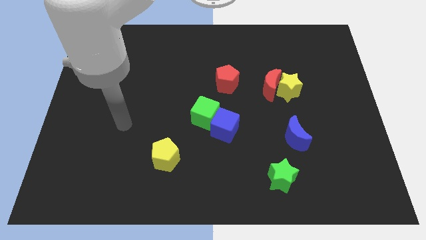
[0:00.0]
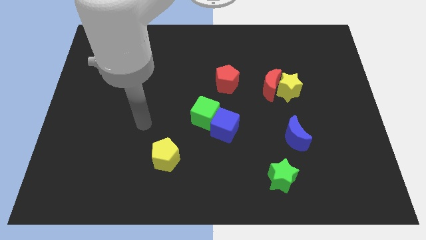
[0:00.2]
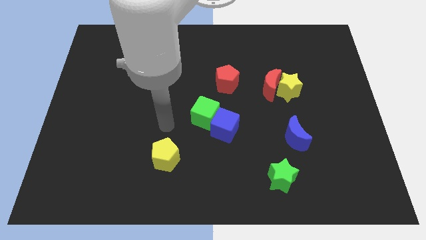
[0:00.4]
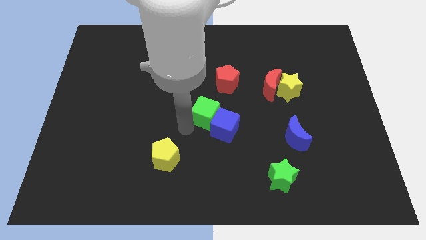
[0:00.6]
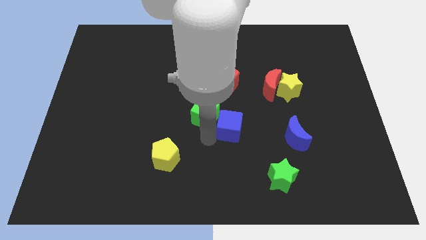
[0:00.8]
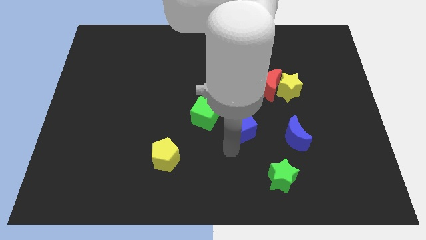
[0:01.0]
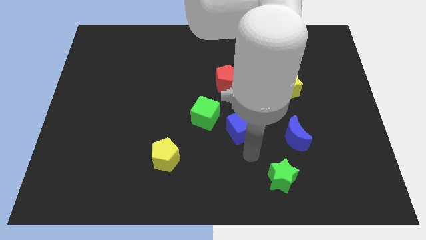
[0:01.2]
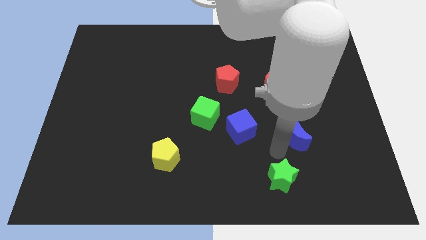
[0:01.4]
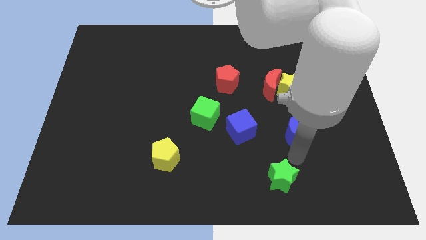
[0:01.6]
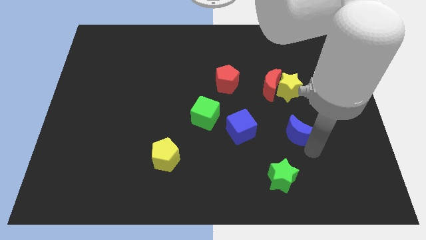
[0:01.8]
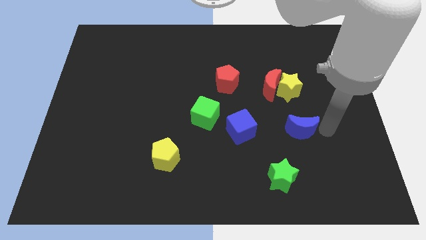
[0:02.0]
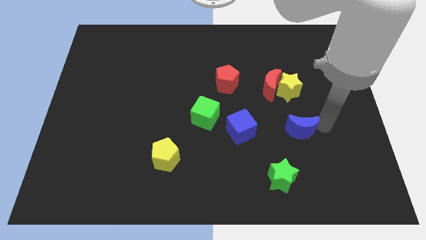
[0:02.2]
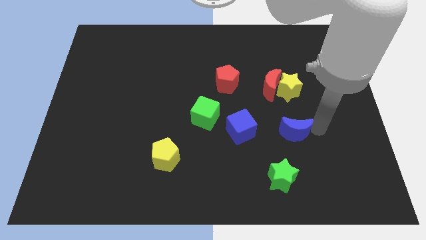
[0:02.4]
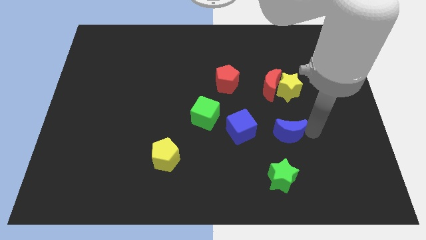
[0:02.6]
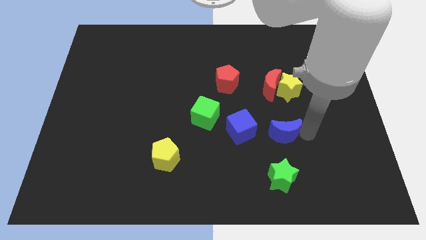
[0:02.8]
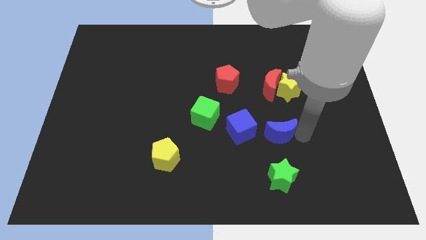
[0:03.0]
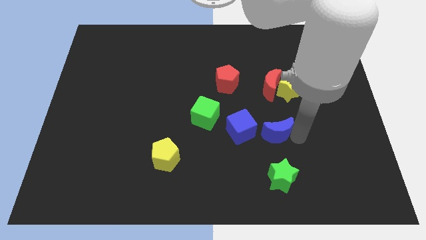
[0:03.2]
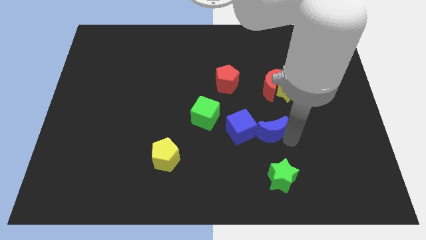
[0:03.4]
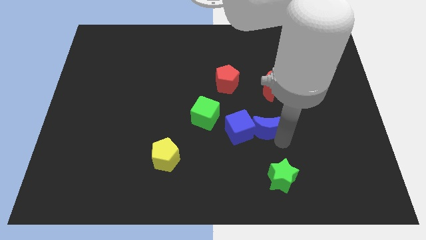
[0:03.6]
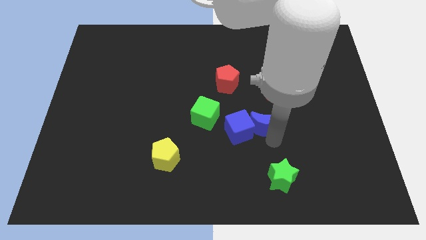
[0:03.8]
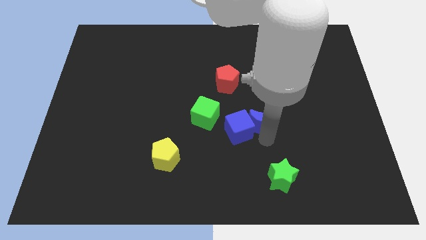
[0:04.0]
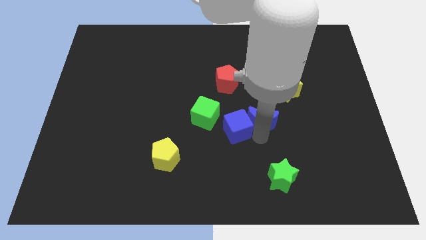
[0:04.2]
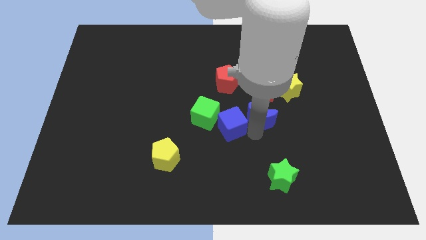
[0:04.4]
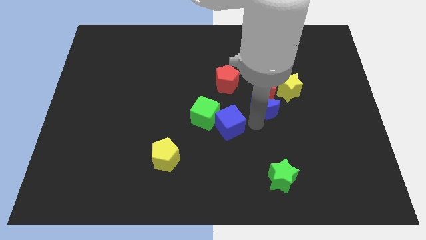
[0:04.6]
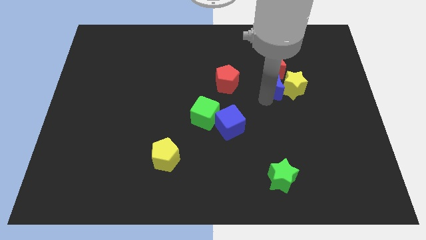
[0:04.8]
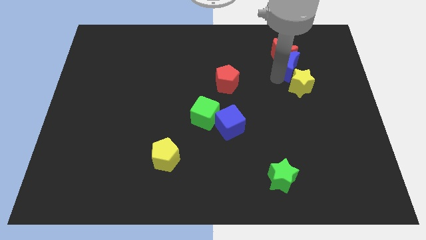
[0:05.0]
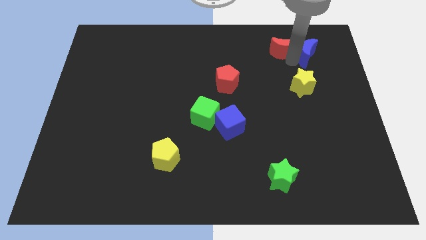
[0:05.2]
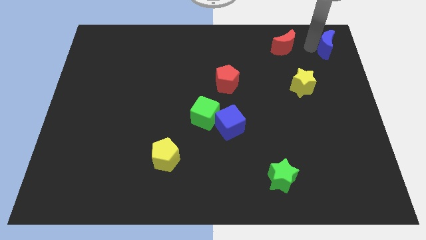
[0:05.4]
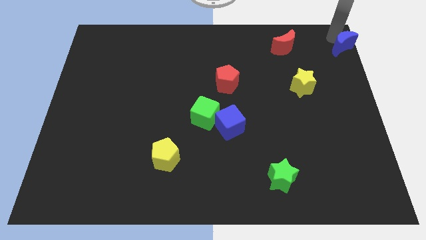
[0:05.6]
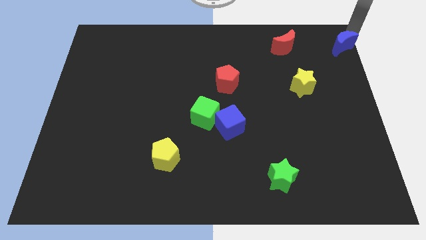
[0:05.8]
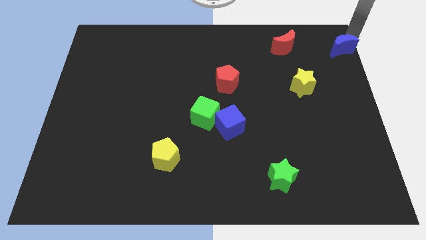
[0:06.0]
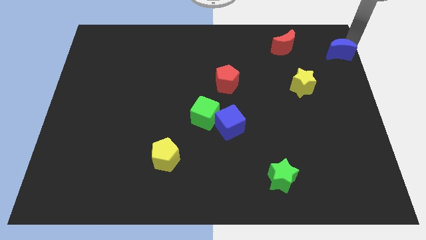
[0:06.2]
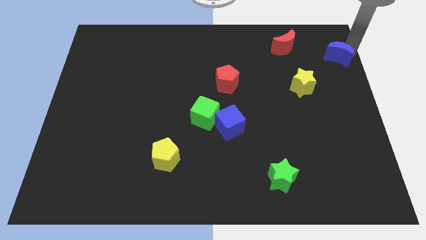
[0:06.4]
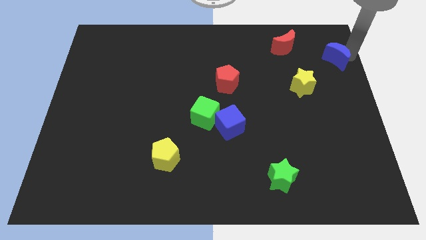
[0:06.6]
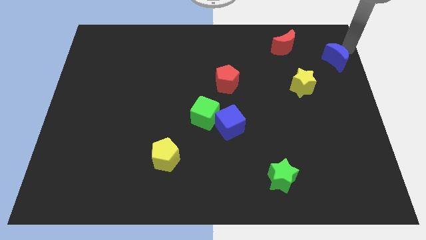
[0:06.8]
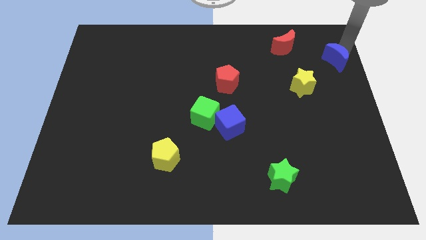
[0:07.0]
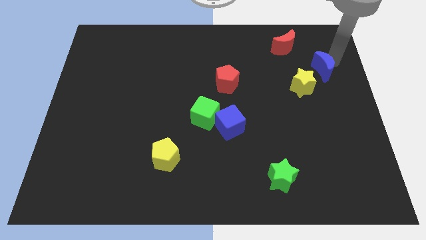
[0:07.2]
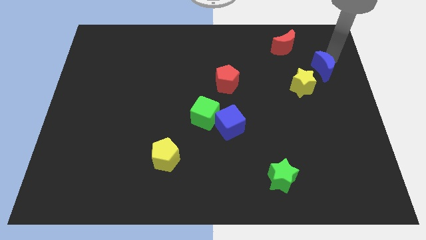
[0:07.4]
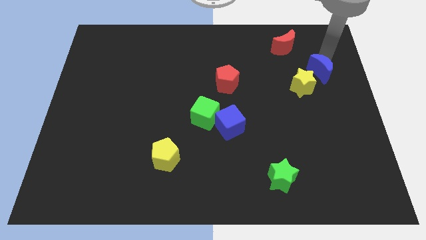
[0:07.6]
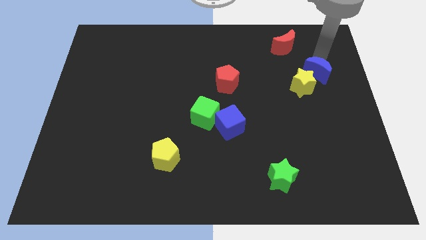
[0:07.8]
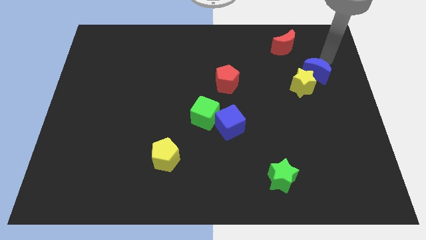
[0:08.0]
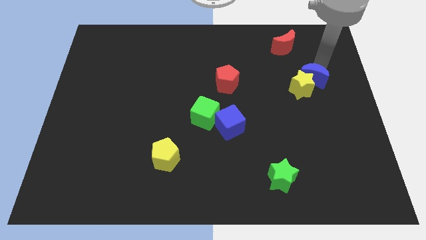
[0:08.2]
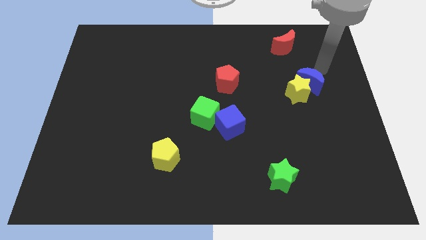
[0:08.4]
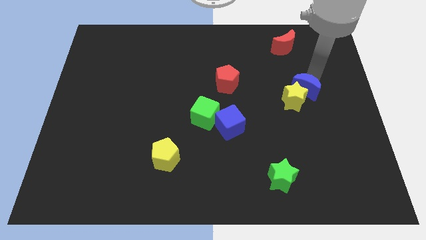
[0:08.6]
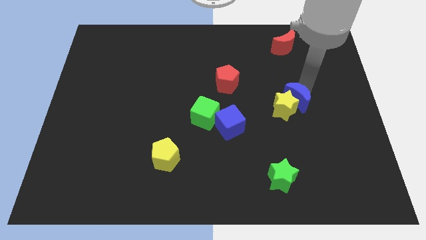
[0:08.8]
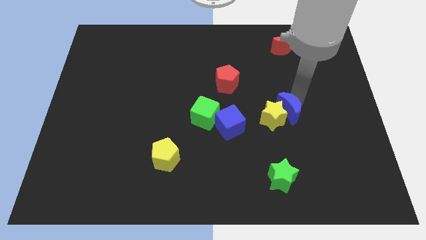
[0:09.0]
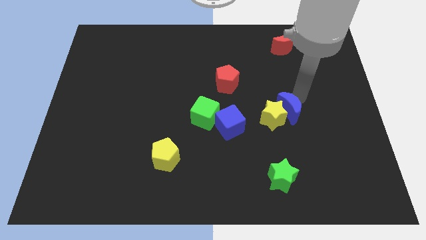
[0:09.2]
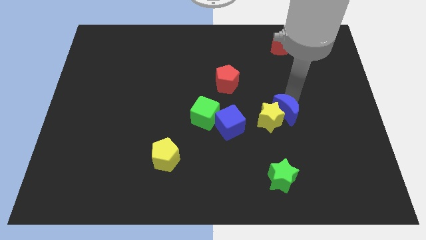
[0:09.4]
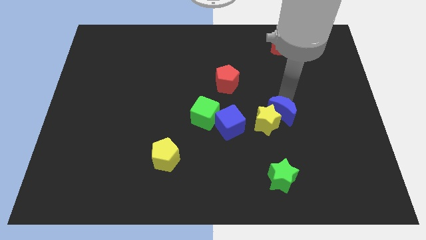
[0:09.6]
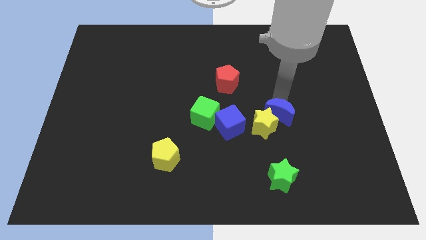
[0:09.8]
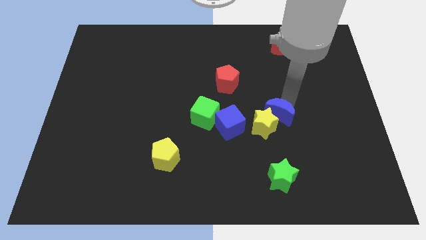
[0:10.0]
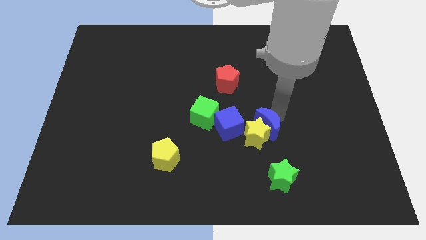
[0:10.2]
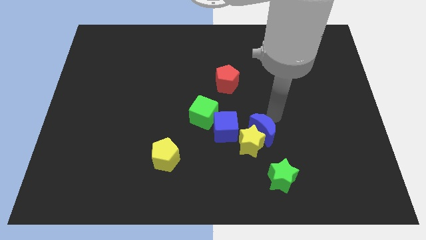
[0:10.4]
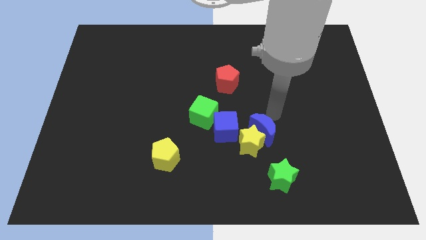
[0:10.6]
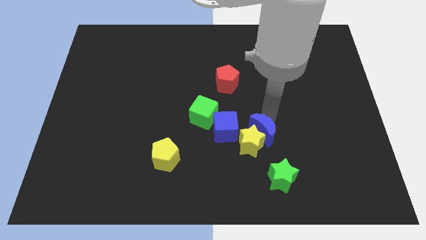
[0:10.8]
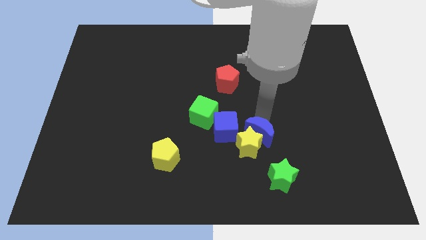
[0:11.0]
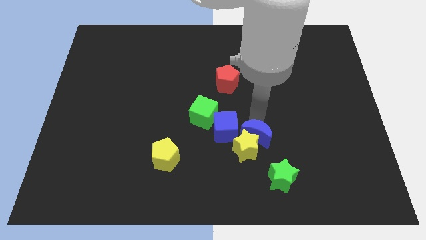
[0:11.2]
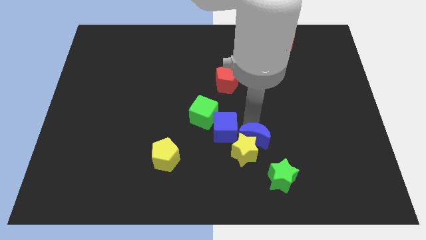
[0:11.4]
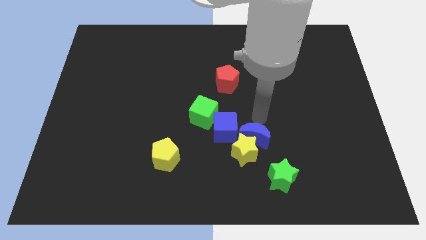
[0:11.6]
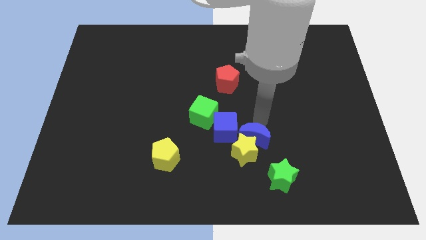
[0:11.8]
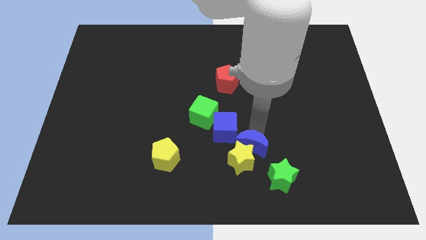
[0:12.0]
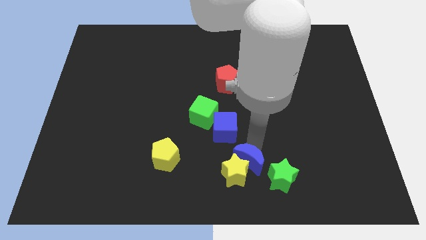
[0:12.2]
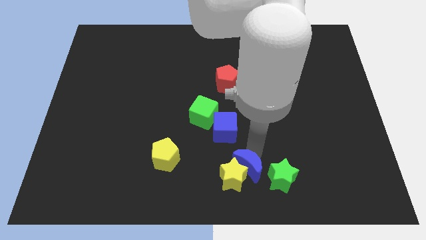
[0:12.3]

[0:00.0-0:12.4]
put the blue moon to the bottom side

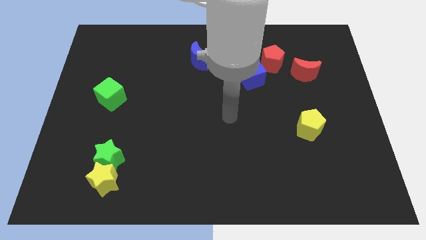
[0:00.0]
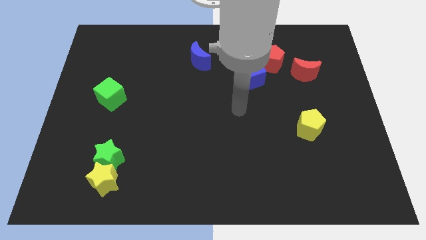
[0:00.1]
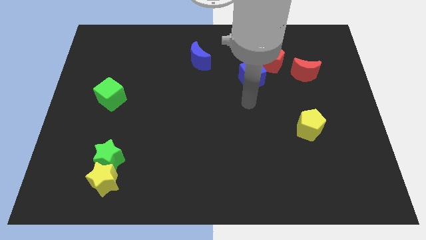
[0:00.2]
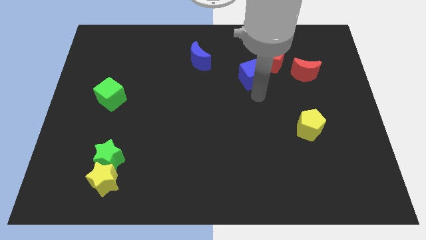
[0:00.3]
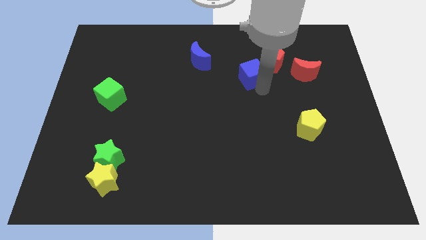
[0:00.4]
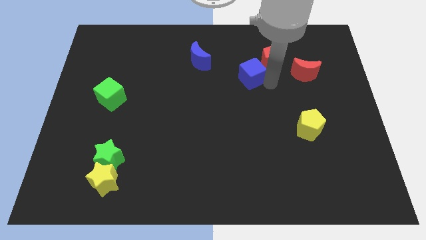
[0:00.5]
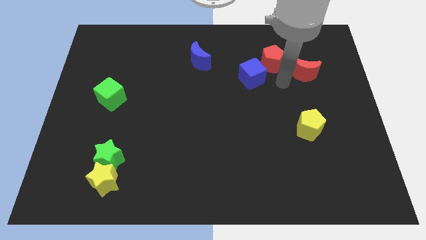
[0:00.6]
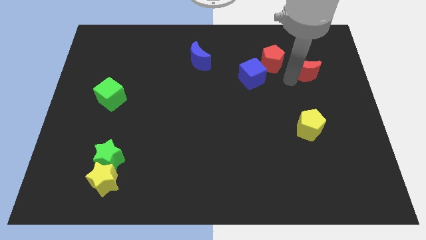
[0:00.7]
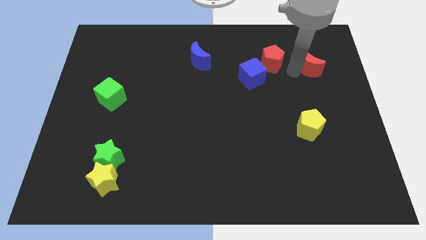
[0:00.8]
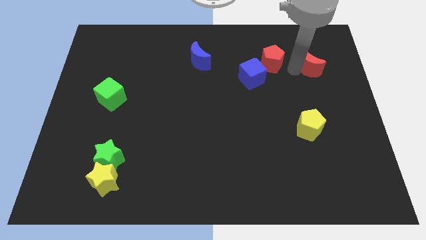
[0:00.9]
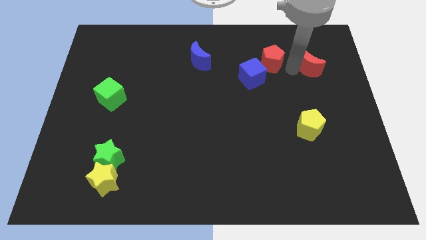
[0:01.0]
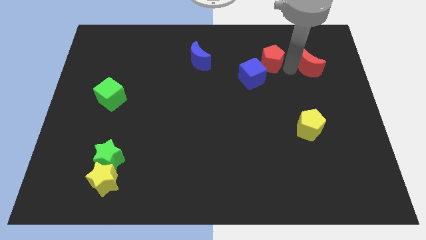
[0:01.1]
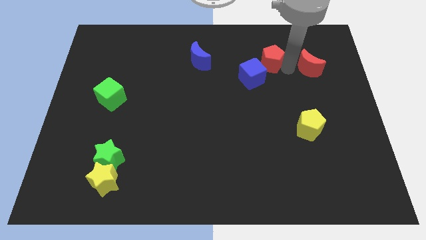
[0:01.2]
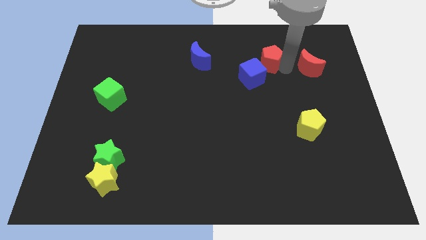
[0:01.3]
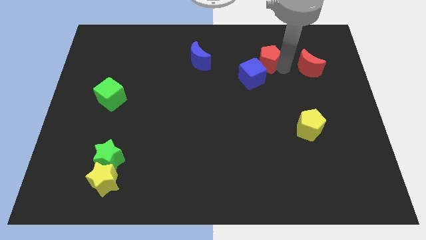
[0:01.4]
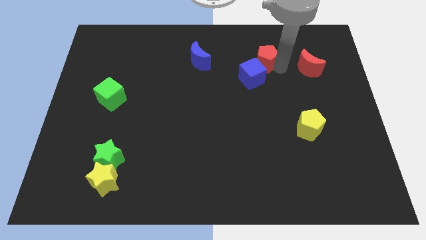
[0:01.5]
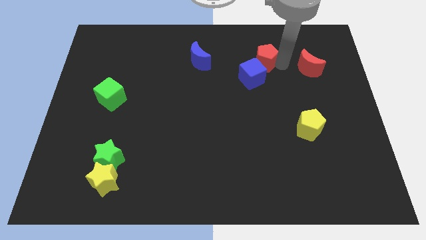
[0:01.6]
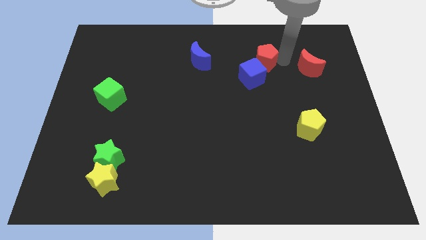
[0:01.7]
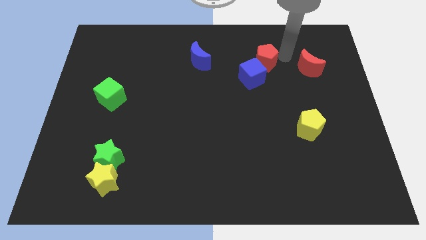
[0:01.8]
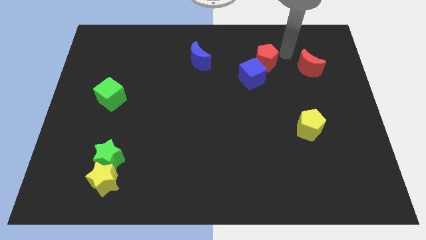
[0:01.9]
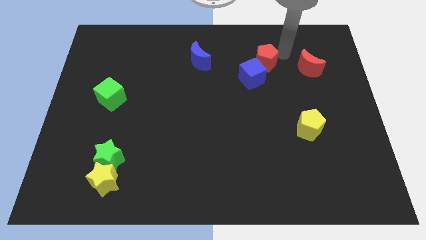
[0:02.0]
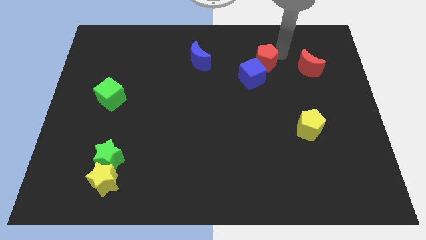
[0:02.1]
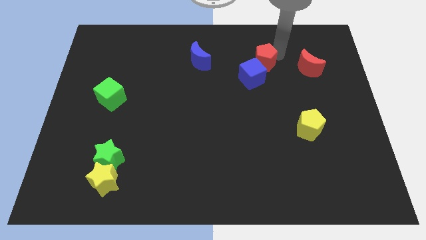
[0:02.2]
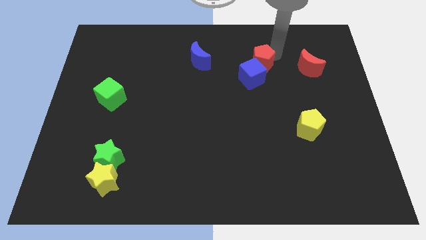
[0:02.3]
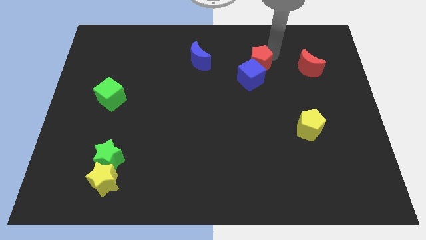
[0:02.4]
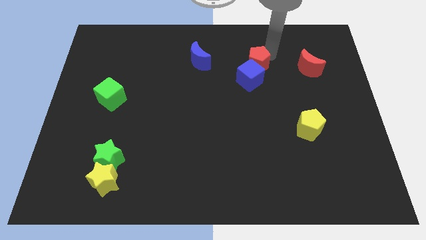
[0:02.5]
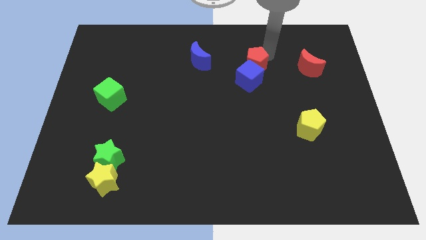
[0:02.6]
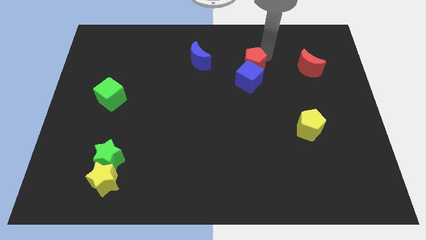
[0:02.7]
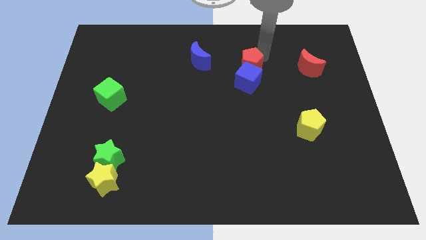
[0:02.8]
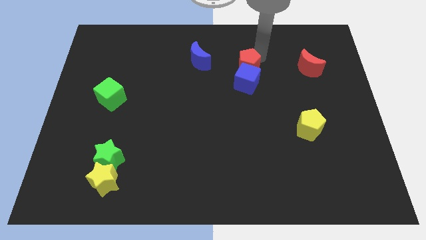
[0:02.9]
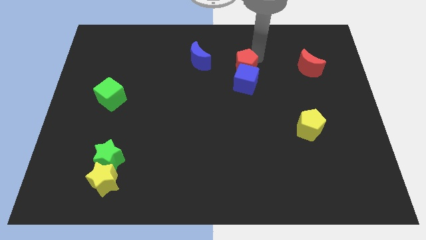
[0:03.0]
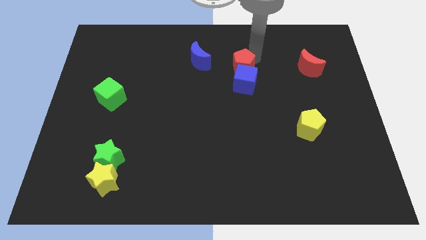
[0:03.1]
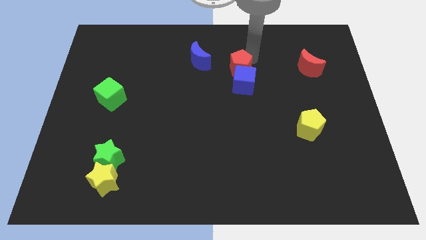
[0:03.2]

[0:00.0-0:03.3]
put the red pentagon to the middle of the board
